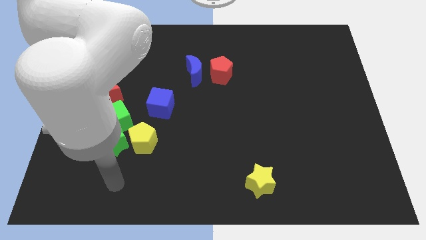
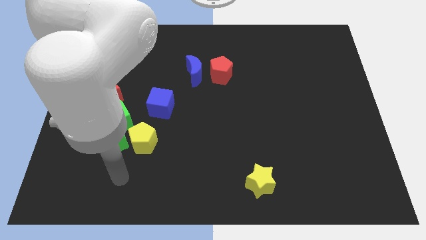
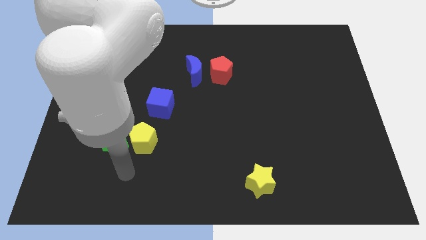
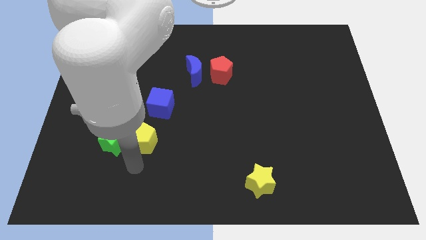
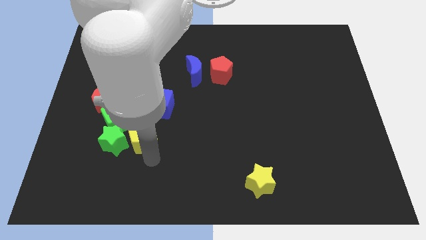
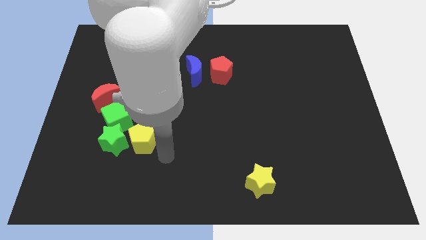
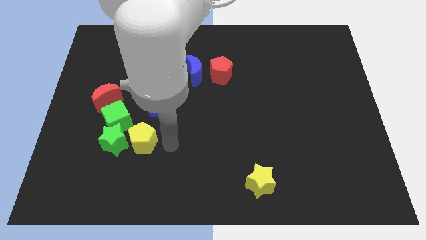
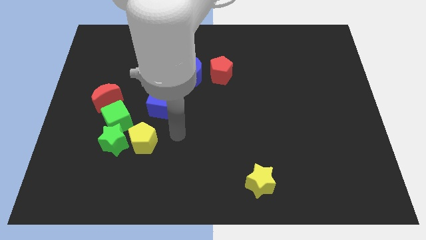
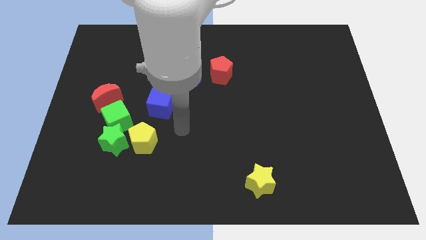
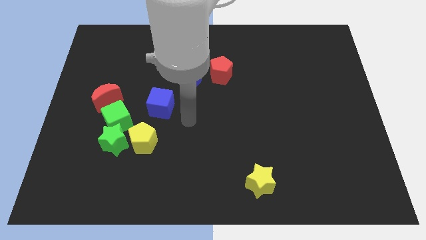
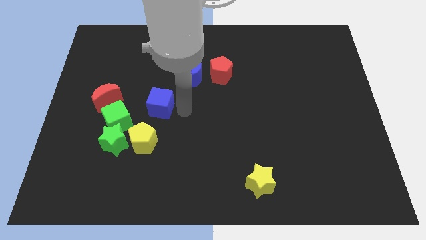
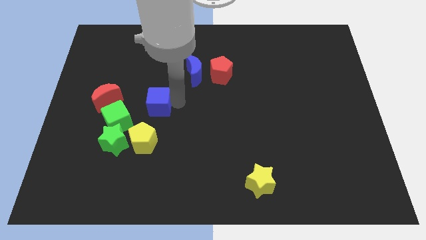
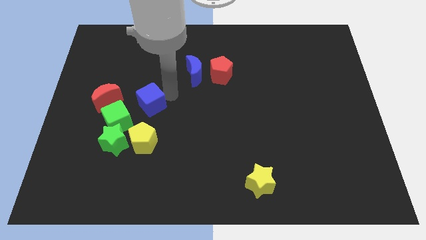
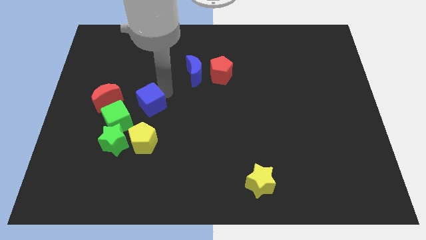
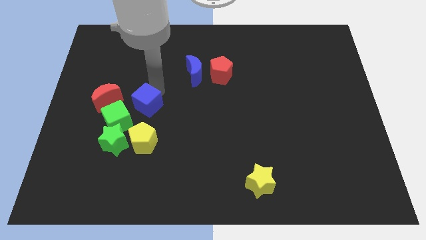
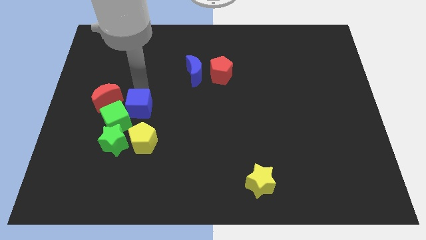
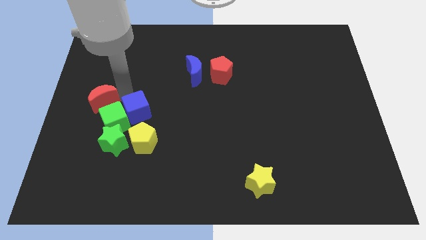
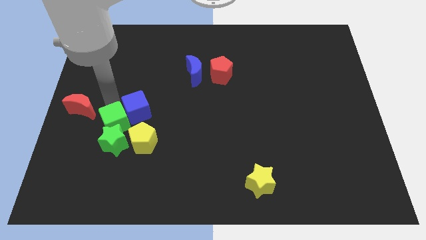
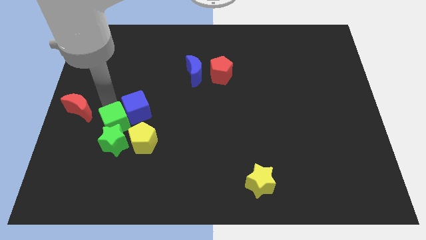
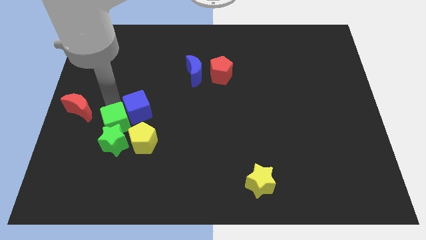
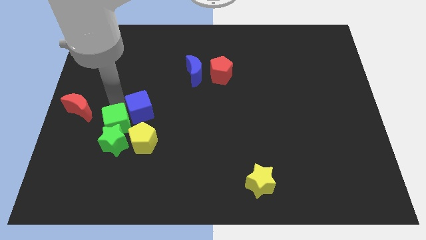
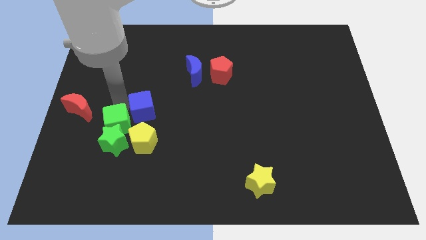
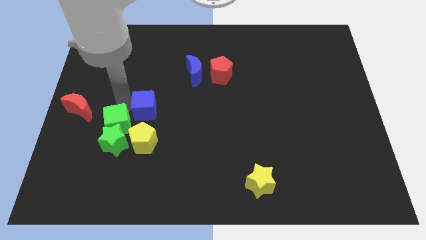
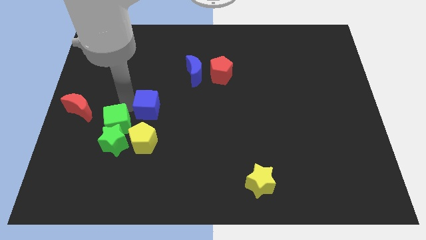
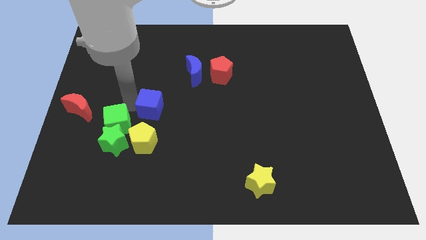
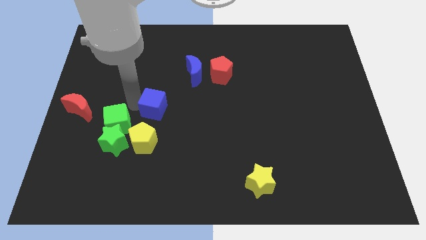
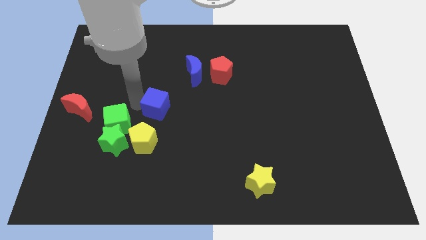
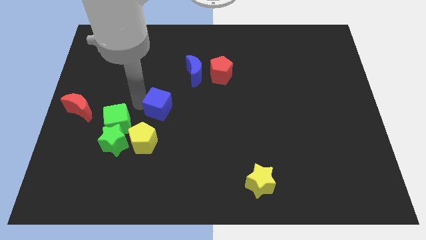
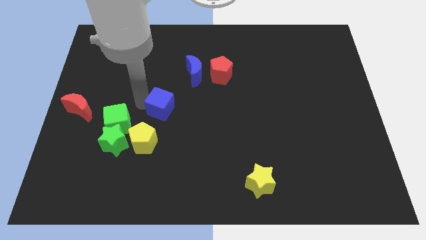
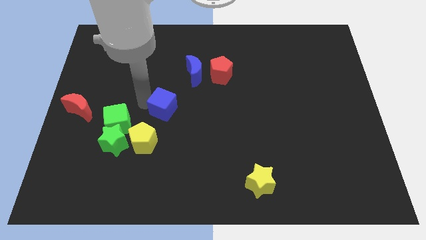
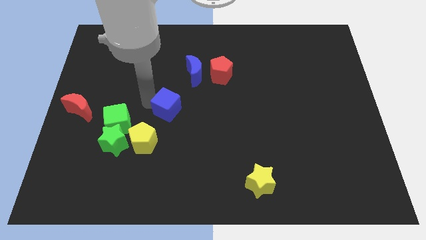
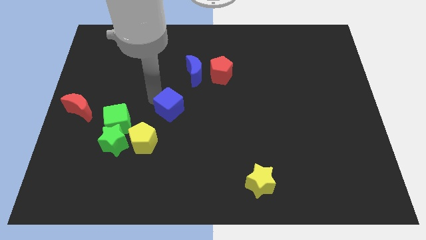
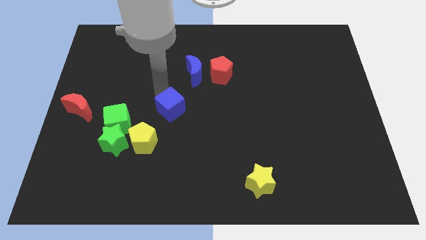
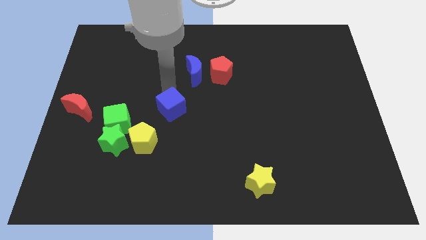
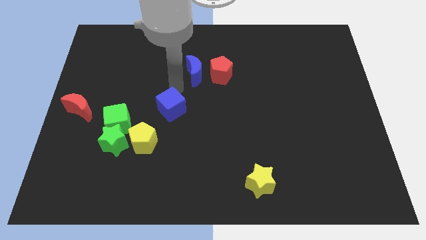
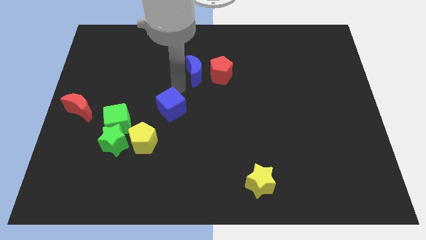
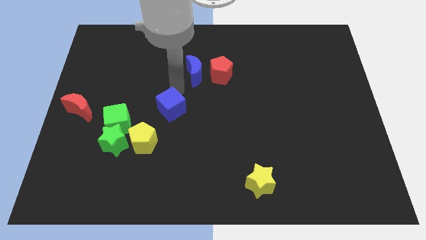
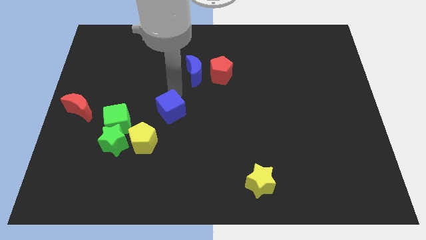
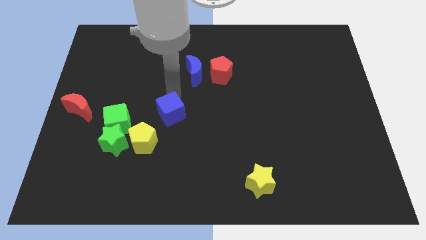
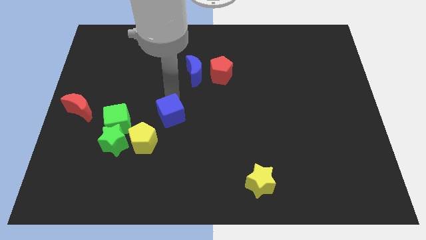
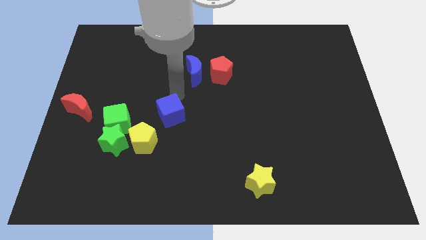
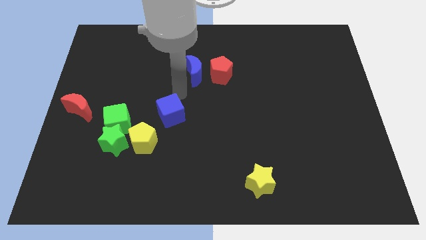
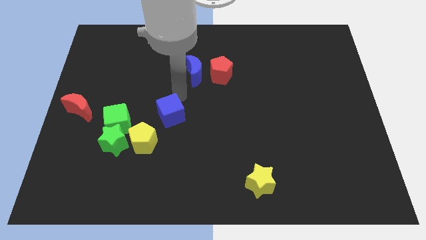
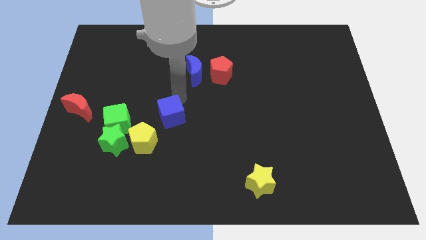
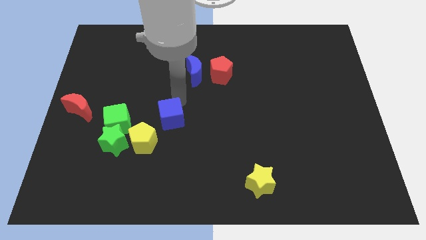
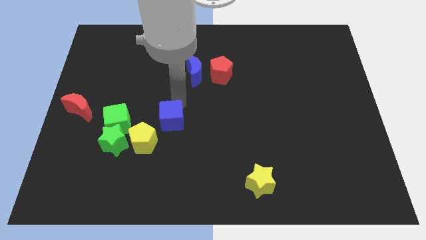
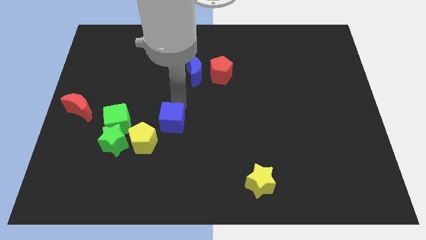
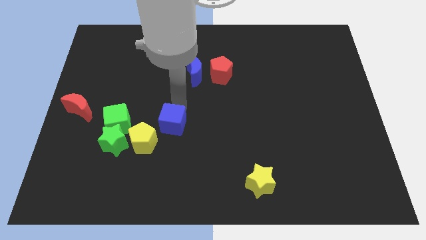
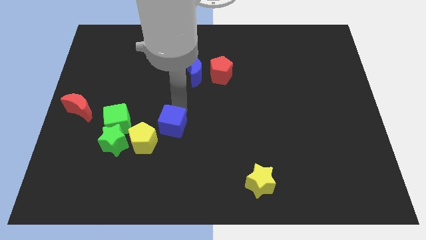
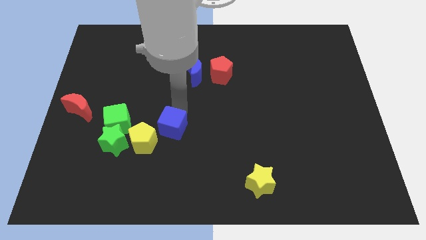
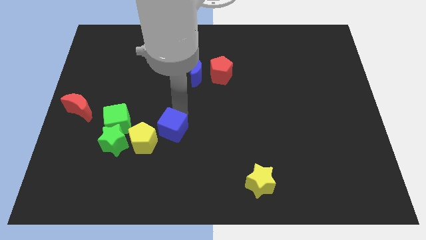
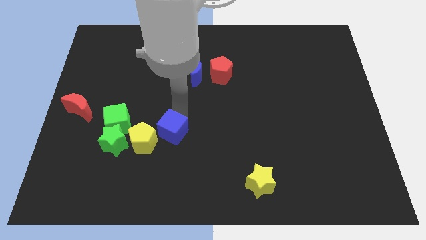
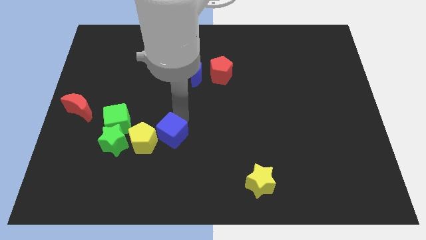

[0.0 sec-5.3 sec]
slide the blue cube slightly downwards

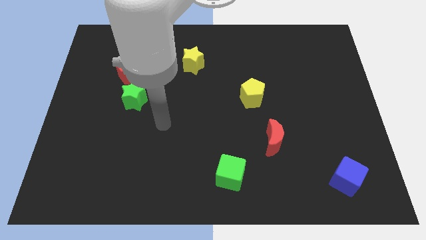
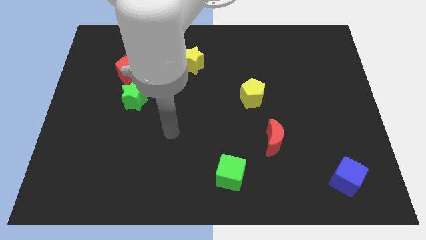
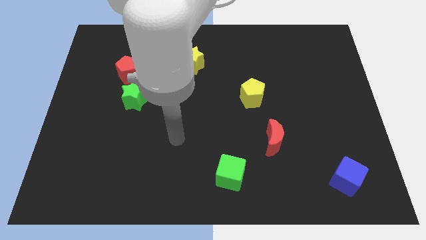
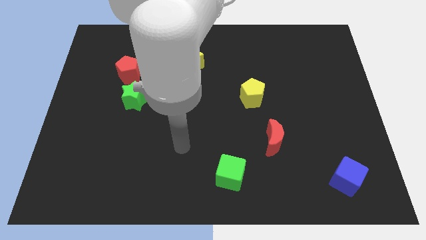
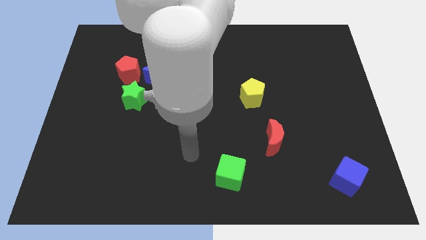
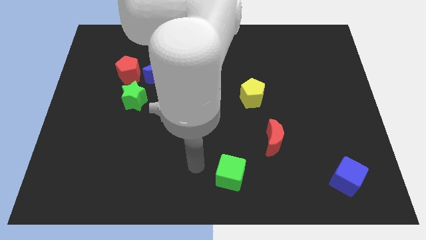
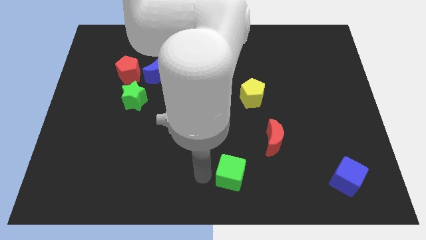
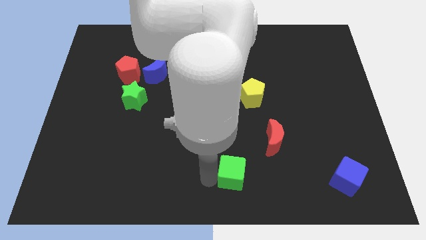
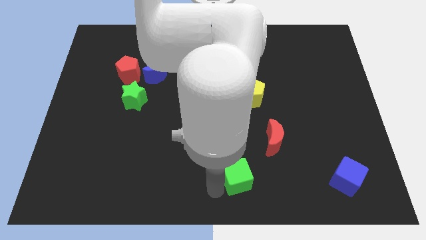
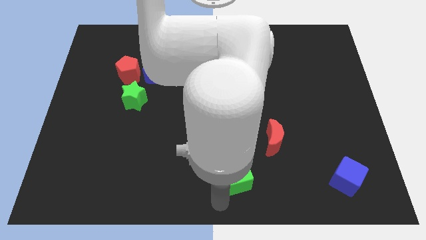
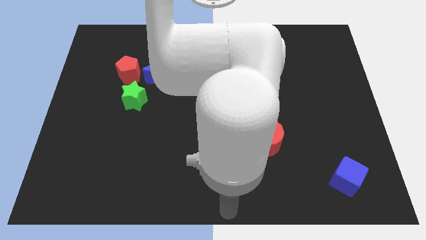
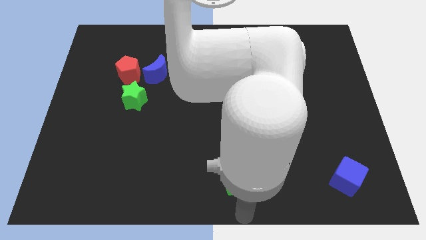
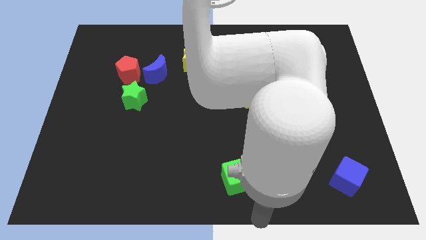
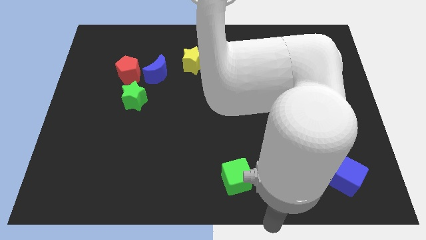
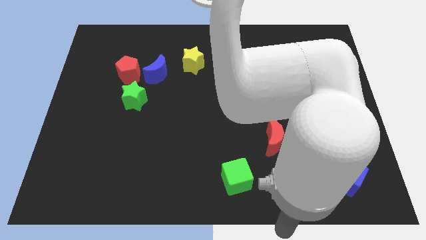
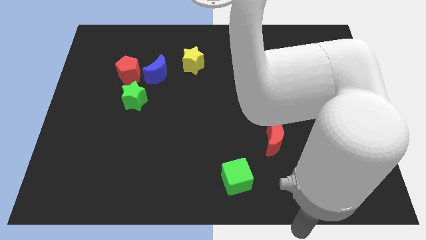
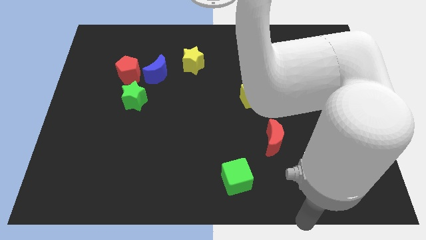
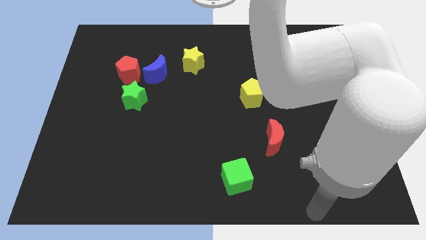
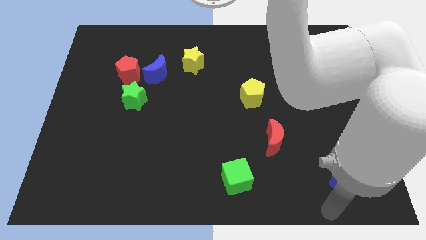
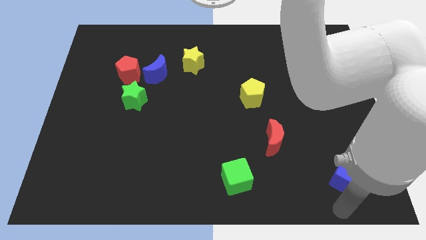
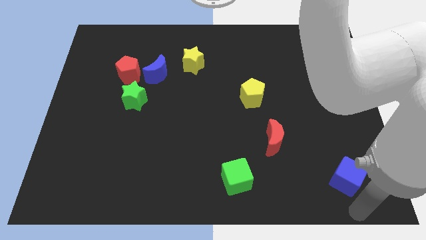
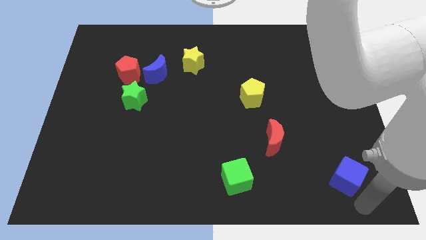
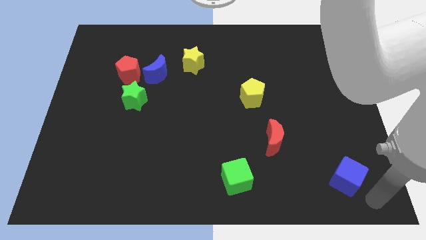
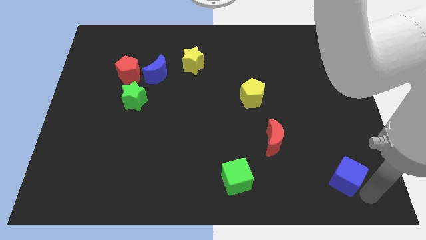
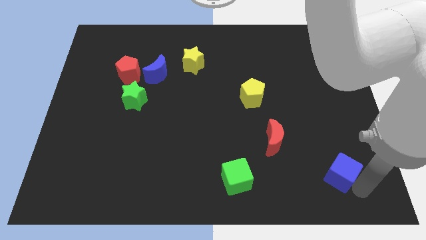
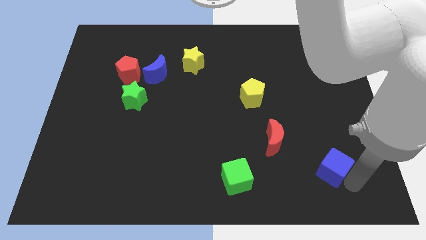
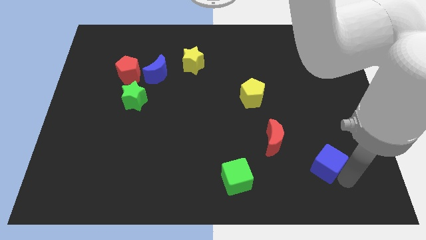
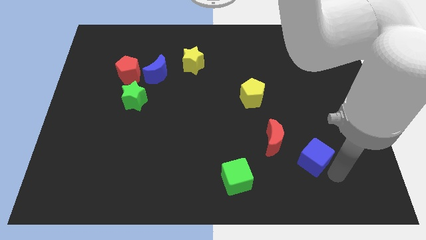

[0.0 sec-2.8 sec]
slide the blue cube up and to the left slightly

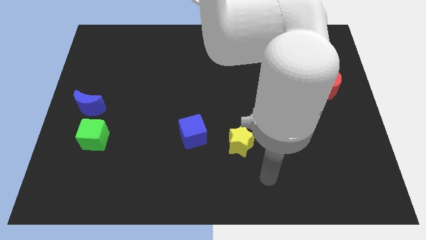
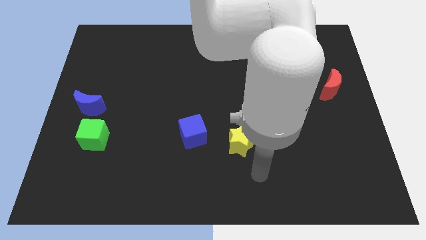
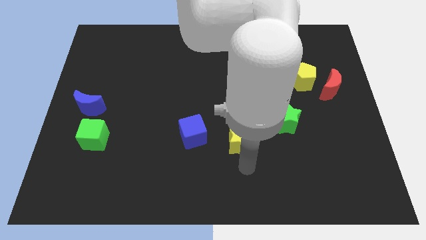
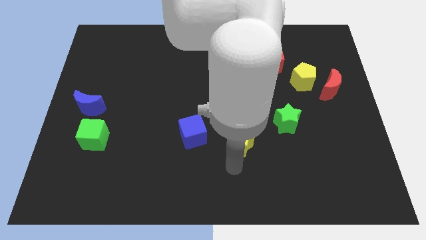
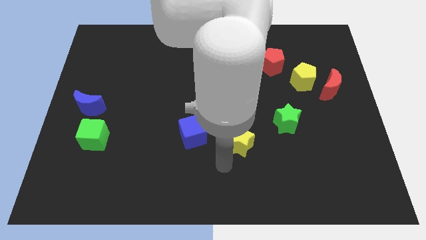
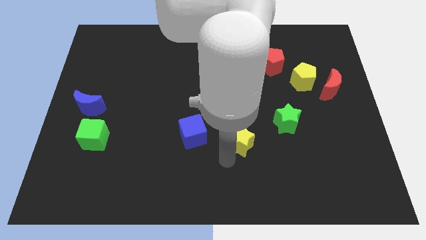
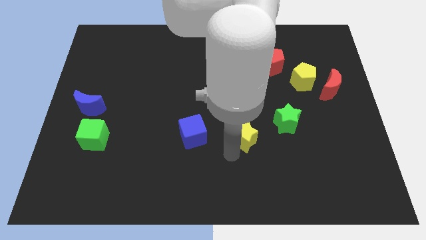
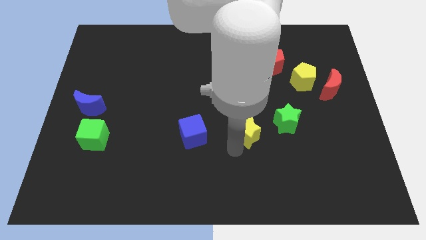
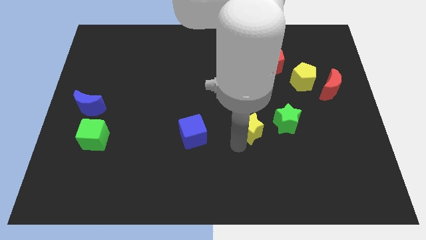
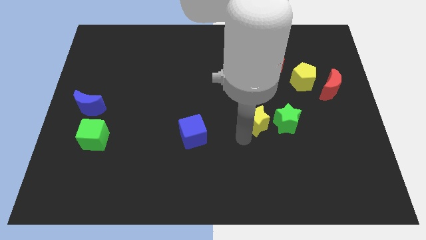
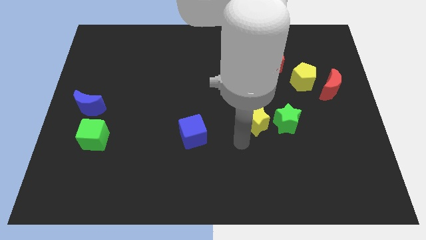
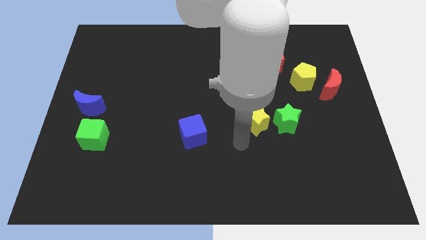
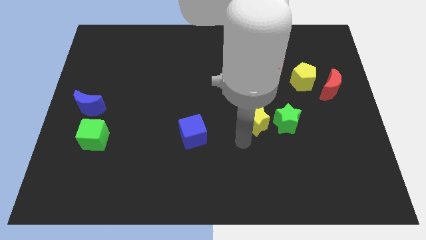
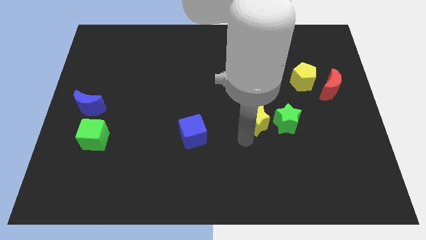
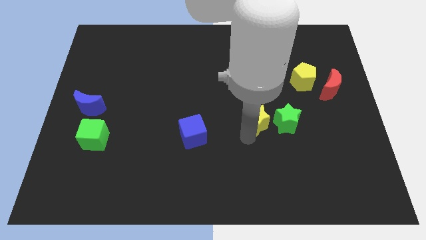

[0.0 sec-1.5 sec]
slightly move the yellow star upwards and to the right diagonally
